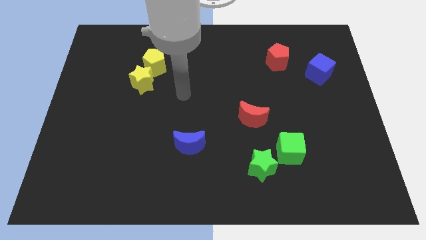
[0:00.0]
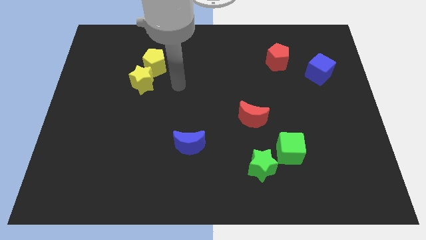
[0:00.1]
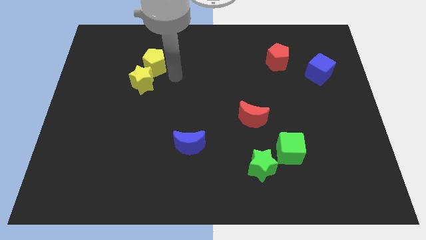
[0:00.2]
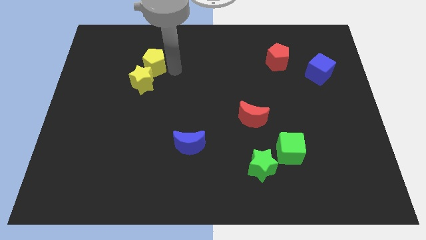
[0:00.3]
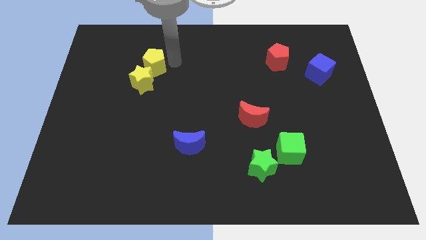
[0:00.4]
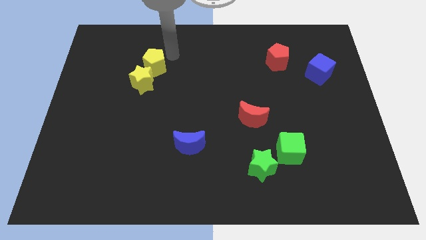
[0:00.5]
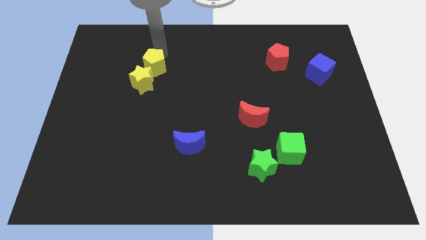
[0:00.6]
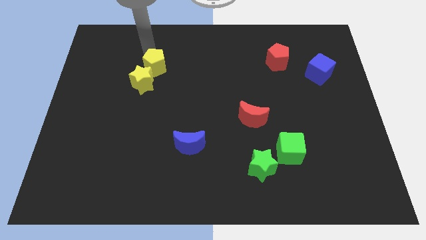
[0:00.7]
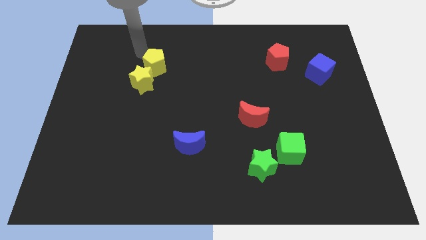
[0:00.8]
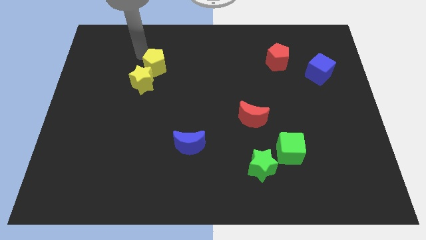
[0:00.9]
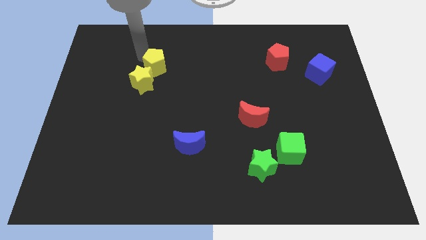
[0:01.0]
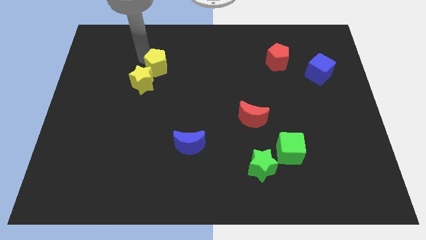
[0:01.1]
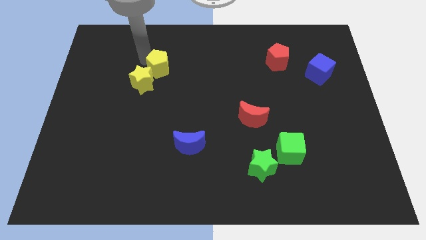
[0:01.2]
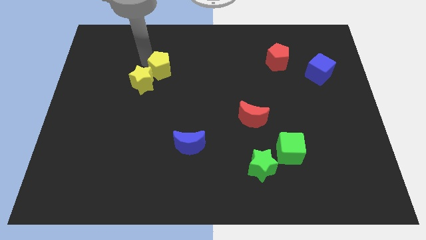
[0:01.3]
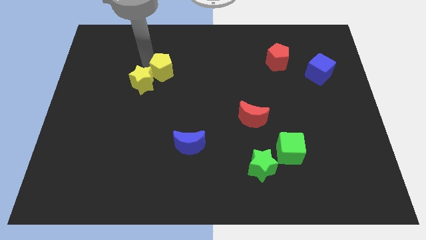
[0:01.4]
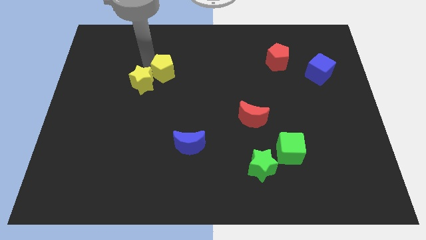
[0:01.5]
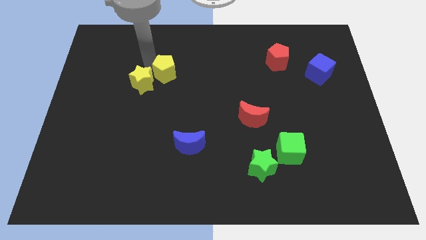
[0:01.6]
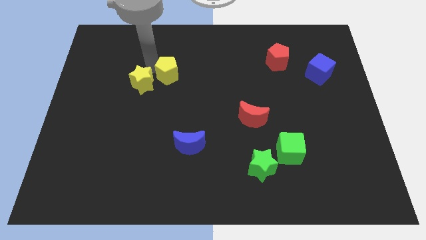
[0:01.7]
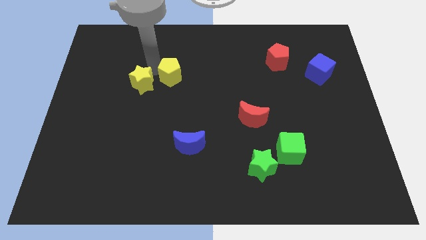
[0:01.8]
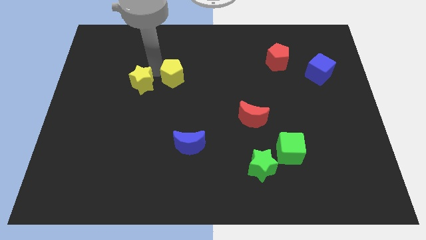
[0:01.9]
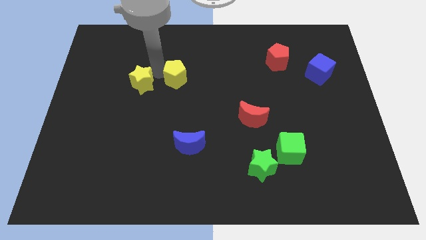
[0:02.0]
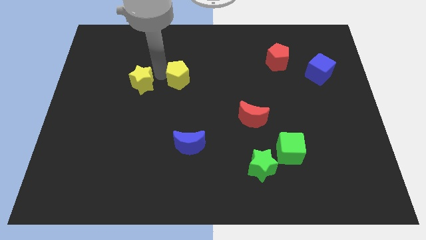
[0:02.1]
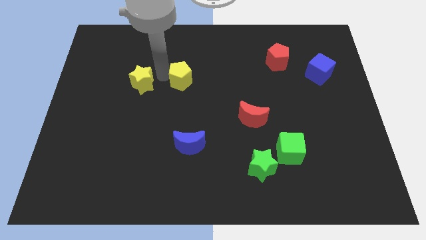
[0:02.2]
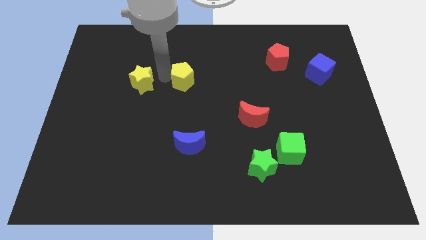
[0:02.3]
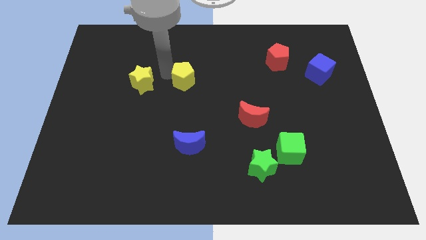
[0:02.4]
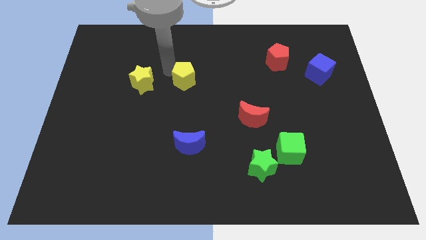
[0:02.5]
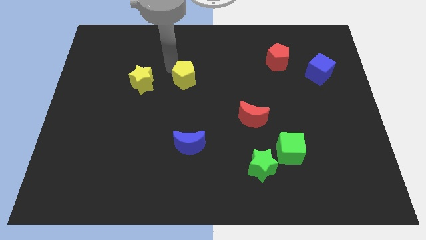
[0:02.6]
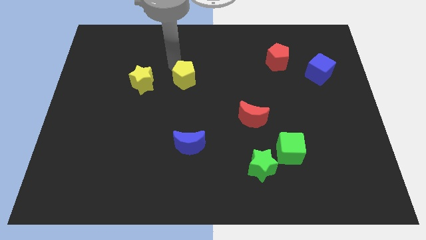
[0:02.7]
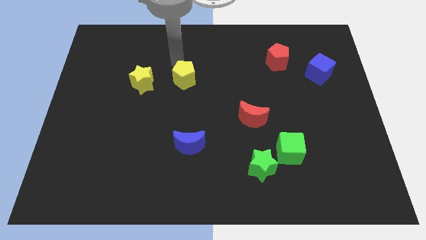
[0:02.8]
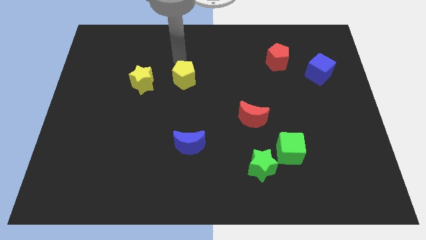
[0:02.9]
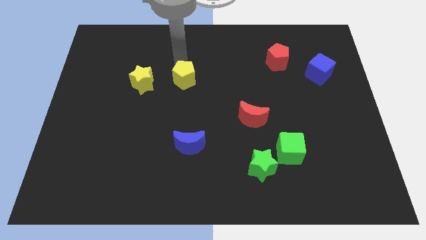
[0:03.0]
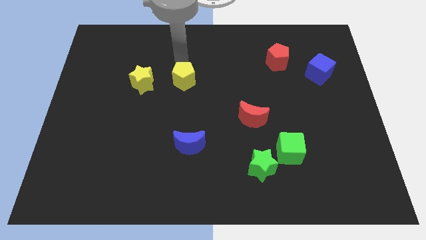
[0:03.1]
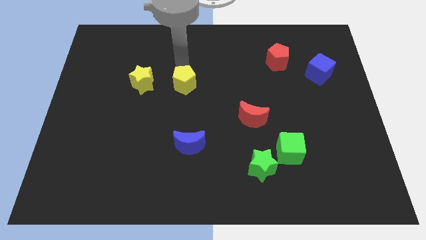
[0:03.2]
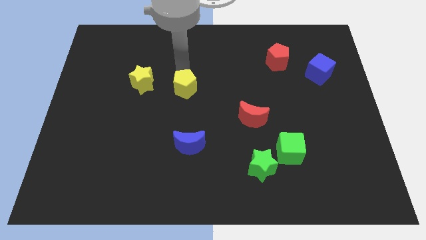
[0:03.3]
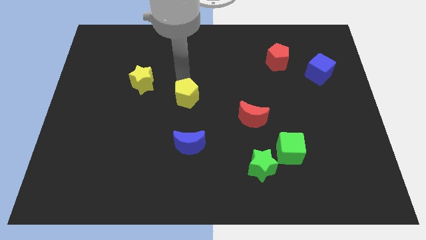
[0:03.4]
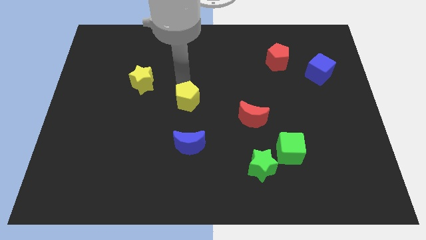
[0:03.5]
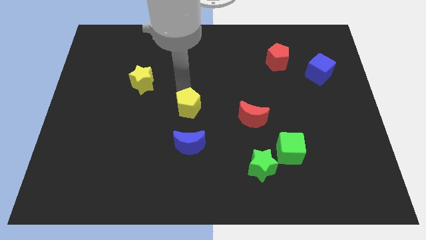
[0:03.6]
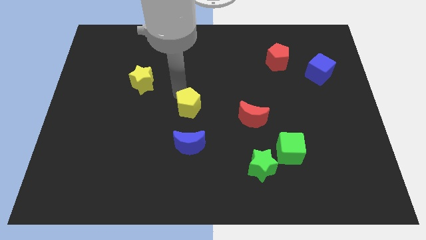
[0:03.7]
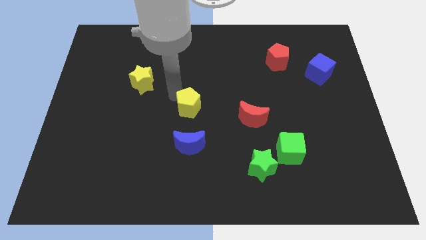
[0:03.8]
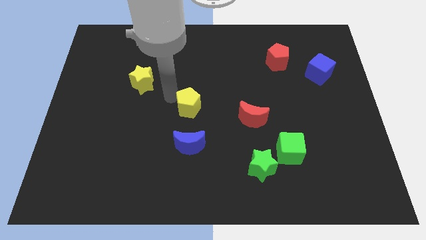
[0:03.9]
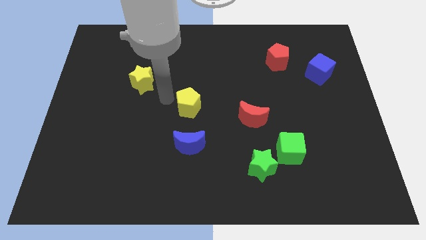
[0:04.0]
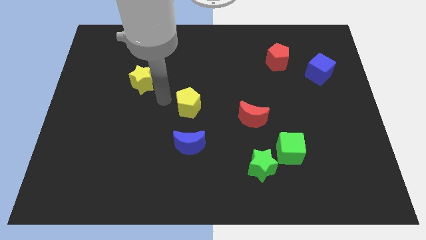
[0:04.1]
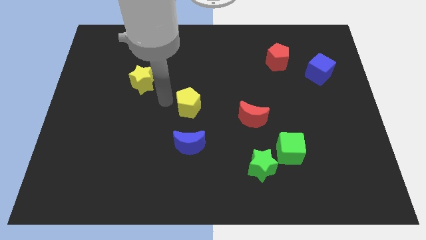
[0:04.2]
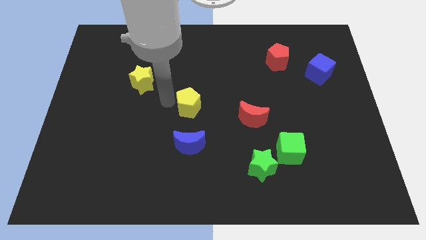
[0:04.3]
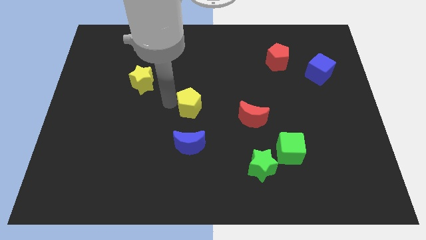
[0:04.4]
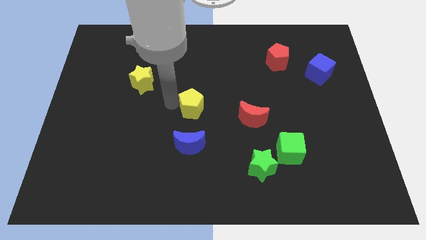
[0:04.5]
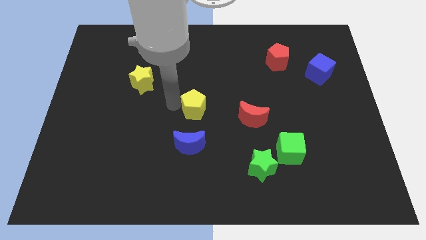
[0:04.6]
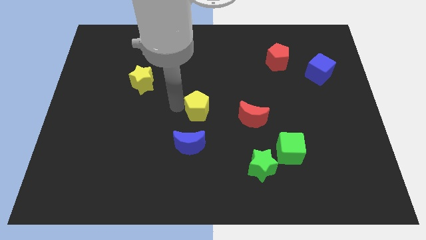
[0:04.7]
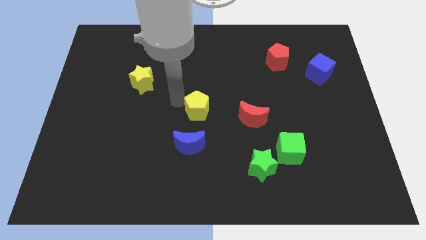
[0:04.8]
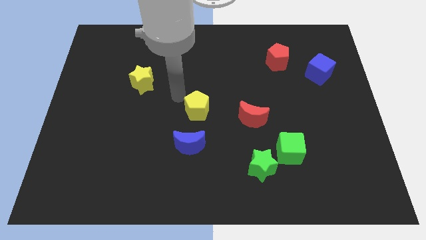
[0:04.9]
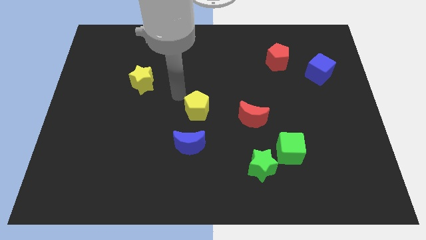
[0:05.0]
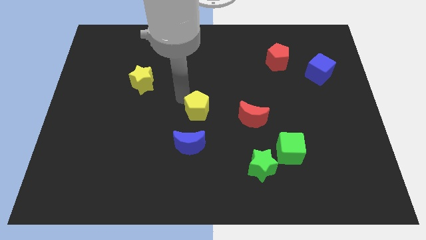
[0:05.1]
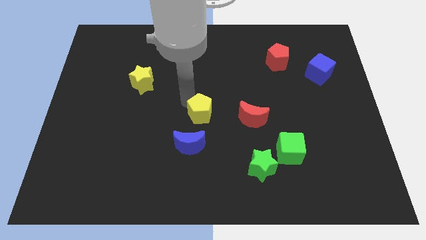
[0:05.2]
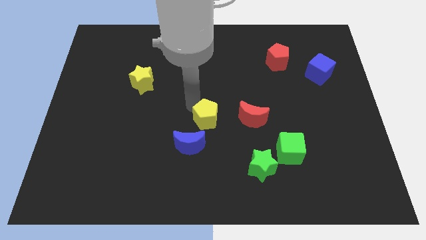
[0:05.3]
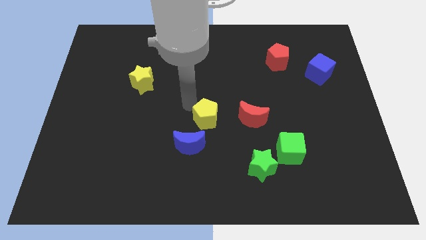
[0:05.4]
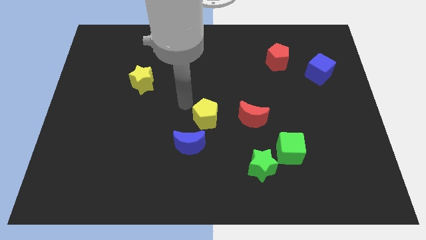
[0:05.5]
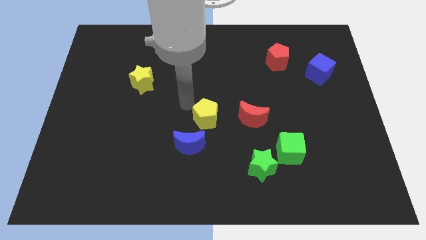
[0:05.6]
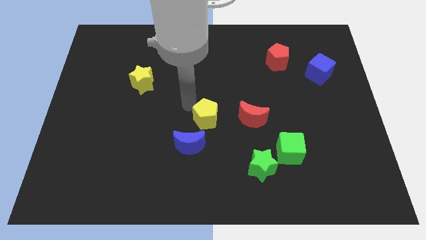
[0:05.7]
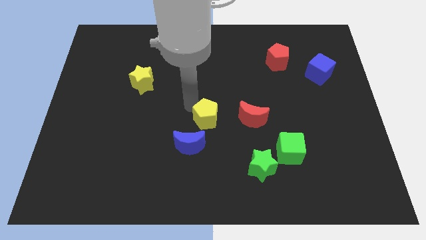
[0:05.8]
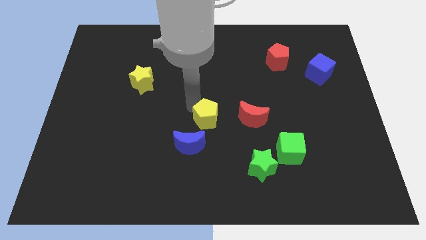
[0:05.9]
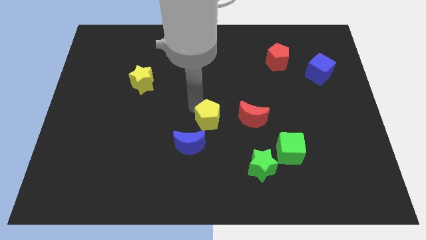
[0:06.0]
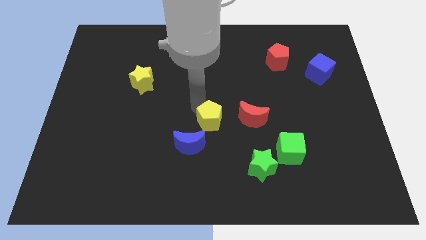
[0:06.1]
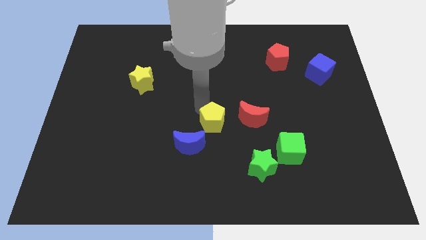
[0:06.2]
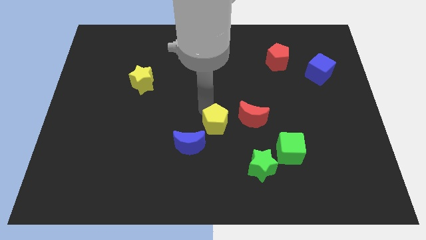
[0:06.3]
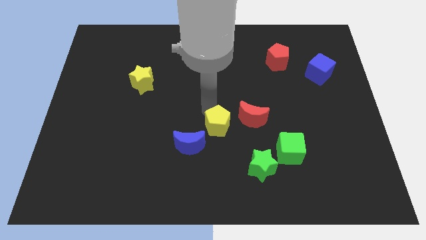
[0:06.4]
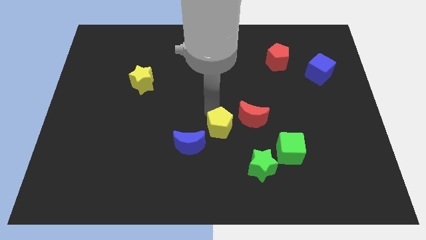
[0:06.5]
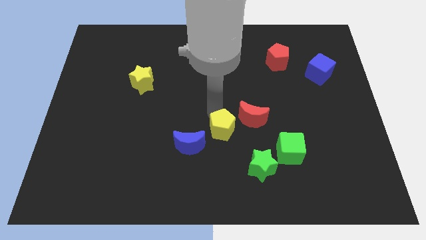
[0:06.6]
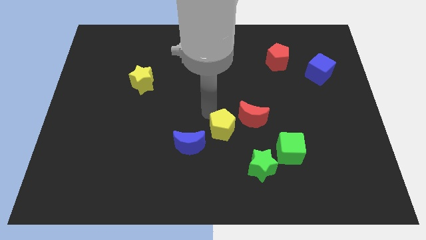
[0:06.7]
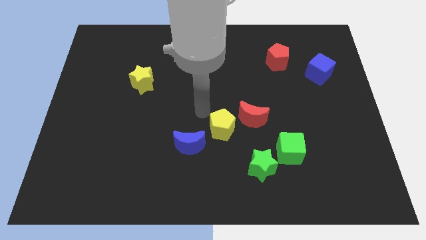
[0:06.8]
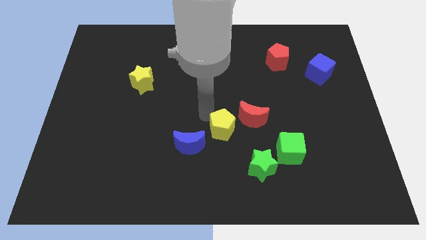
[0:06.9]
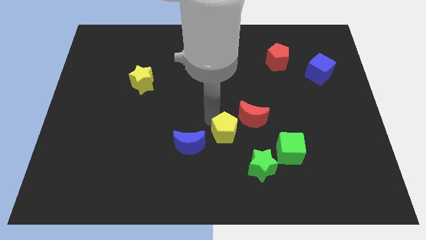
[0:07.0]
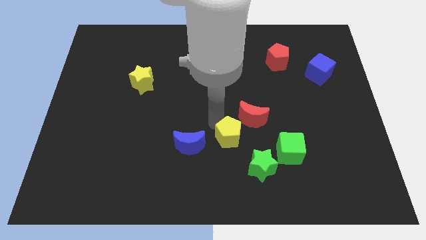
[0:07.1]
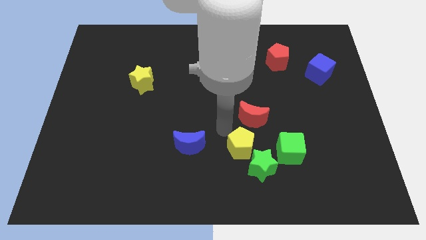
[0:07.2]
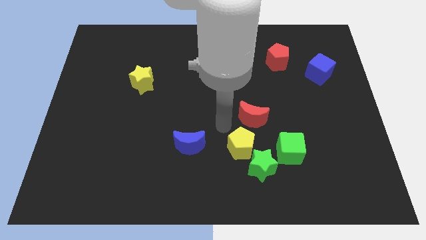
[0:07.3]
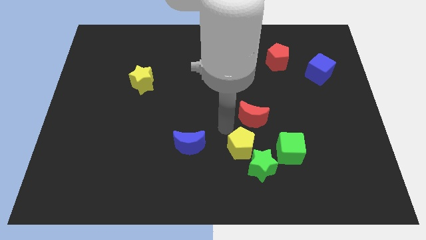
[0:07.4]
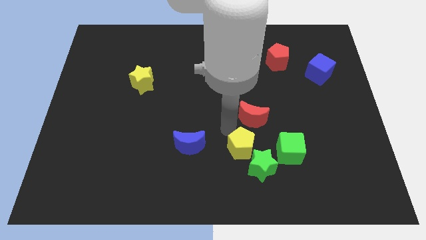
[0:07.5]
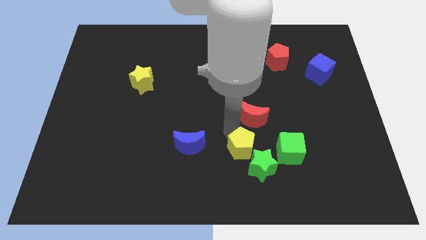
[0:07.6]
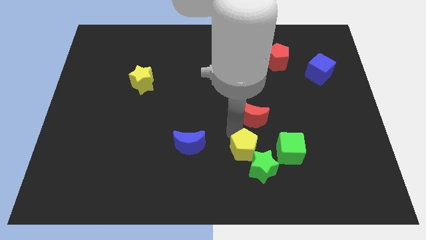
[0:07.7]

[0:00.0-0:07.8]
put the yellow pentagon next to the green star

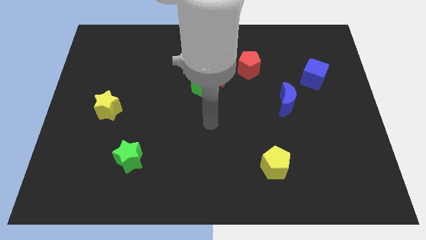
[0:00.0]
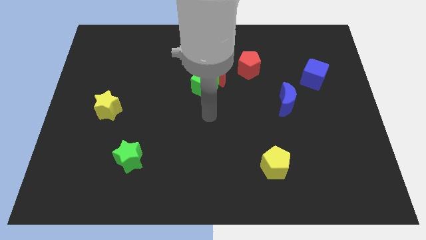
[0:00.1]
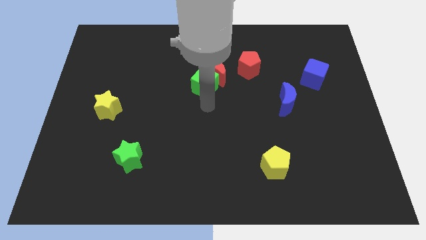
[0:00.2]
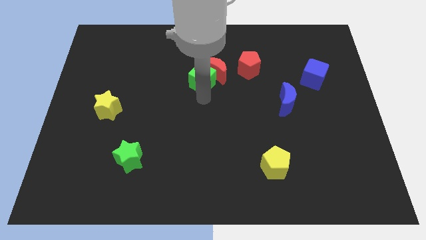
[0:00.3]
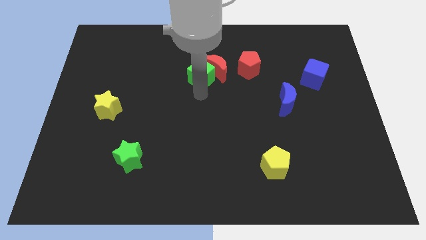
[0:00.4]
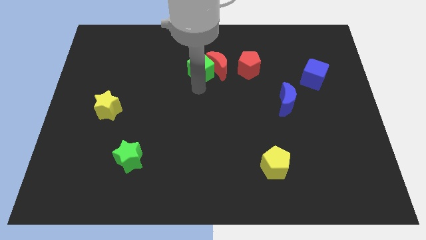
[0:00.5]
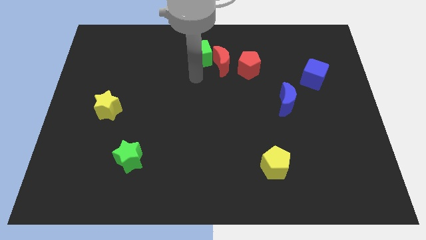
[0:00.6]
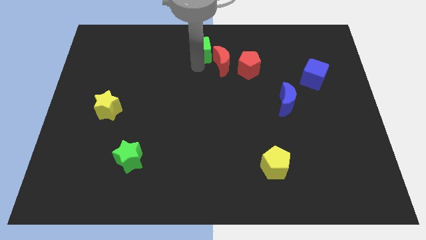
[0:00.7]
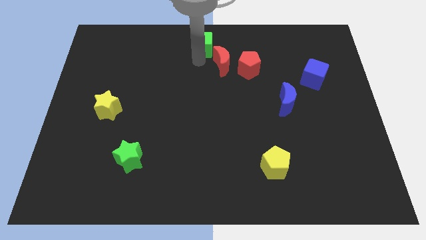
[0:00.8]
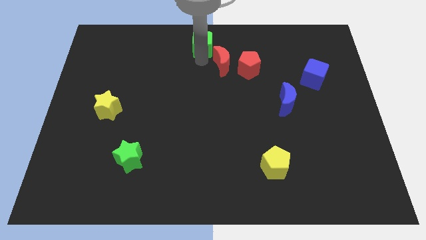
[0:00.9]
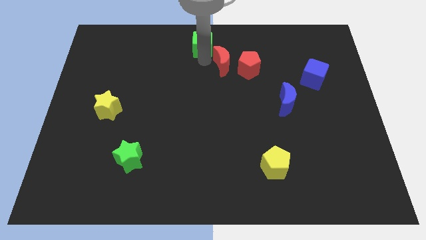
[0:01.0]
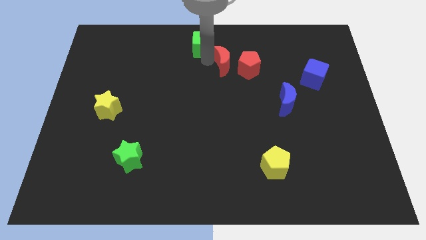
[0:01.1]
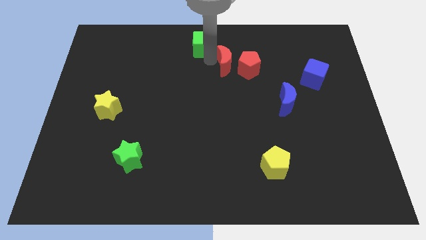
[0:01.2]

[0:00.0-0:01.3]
put the red moon to the red pentagon
